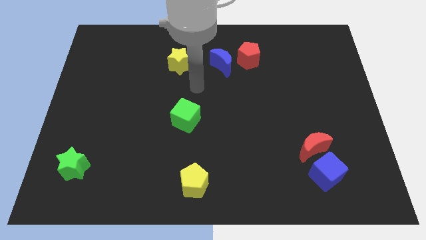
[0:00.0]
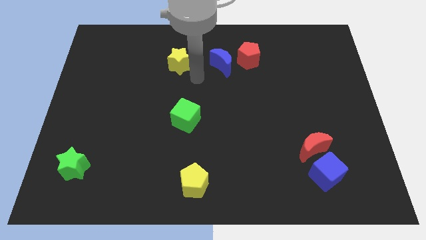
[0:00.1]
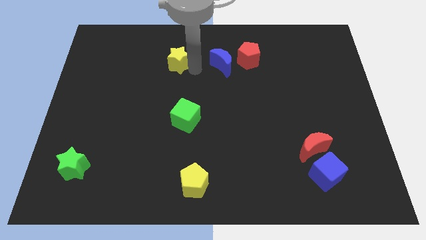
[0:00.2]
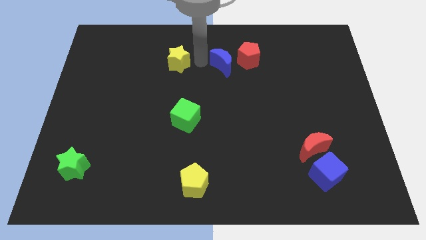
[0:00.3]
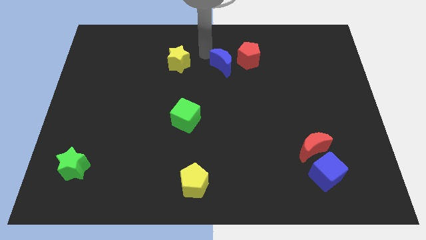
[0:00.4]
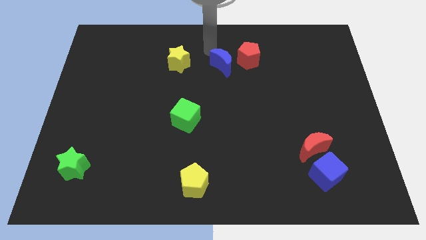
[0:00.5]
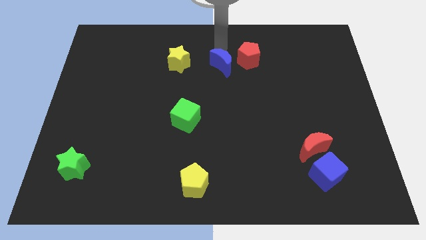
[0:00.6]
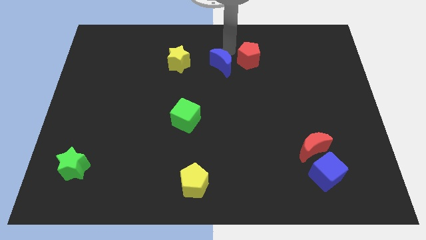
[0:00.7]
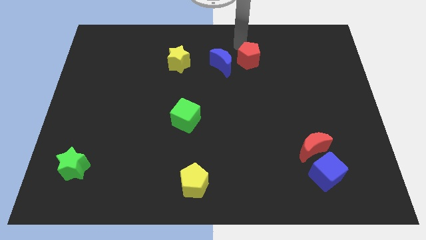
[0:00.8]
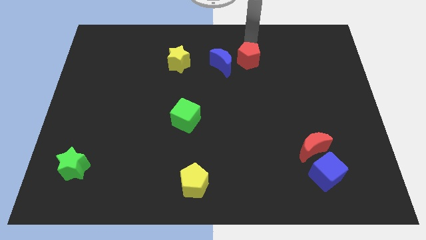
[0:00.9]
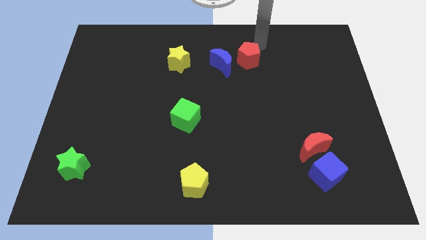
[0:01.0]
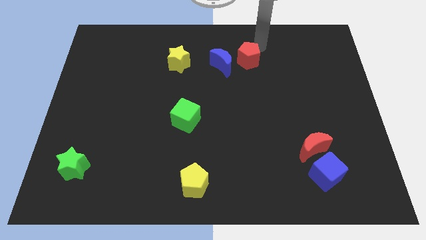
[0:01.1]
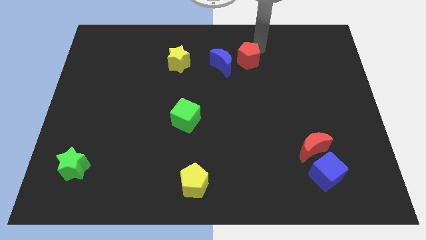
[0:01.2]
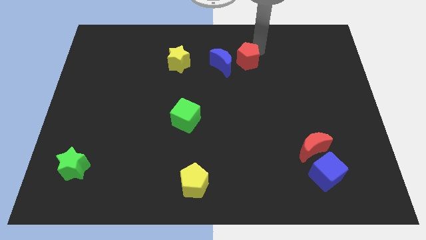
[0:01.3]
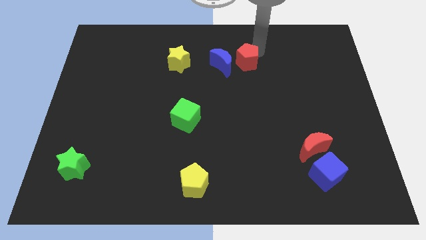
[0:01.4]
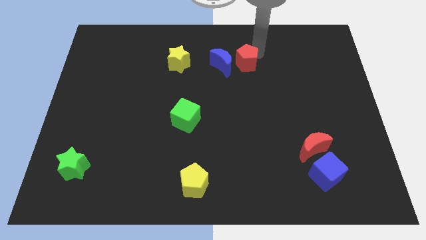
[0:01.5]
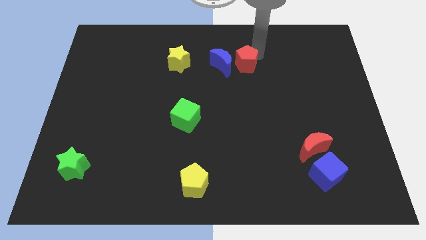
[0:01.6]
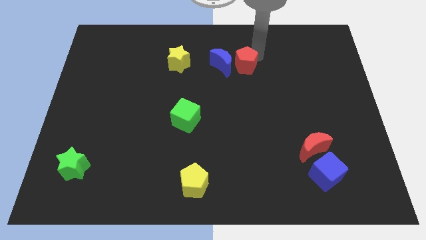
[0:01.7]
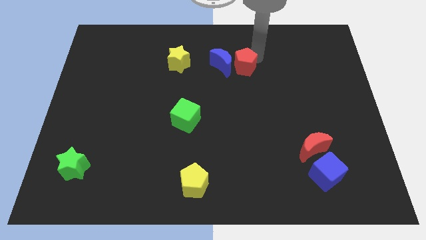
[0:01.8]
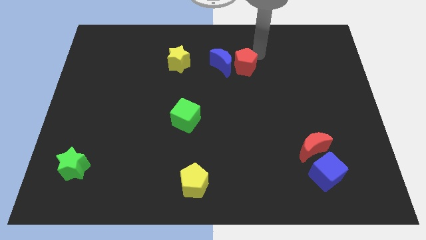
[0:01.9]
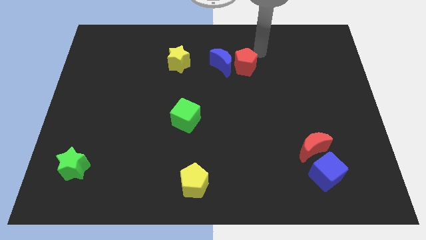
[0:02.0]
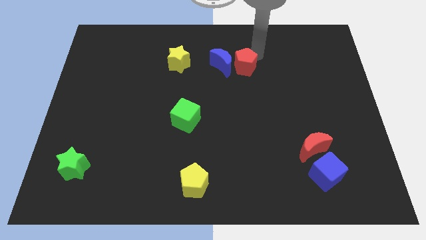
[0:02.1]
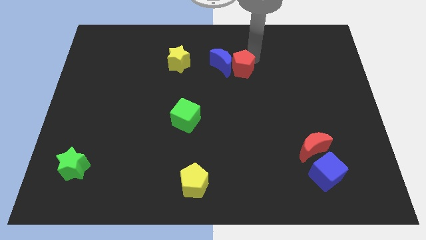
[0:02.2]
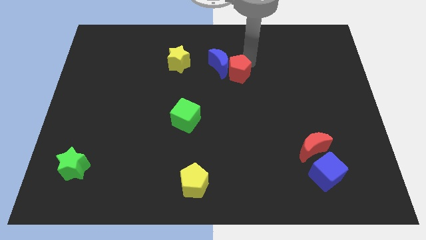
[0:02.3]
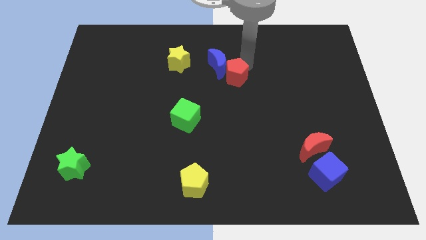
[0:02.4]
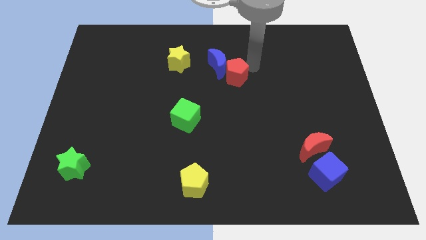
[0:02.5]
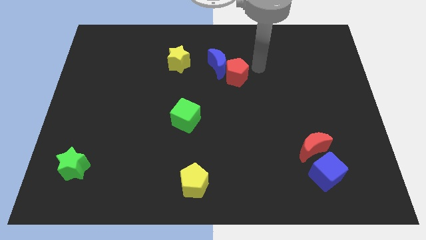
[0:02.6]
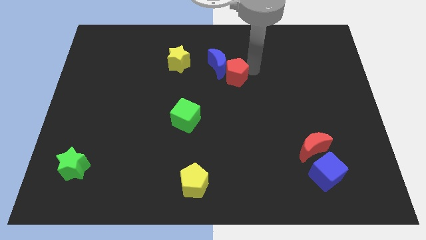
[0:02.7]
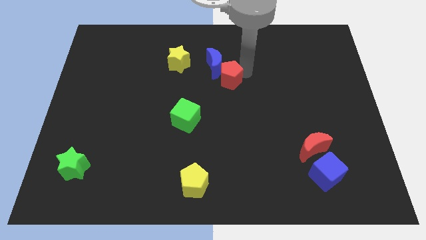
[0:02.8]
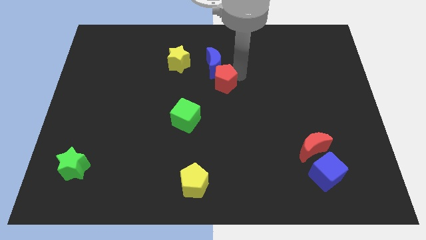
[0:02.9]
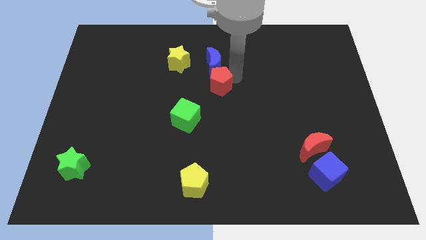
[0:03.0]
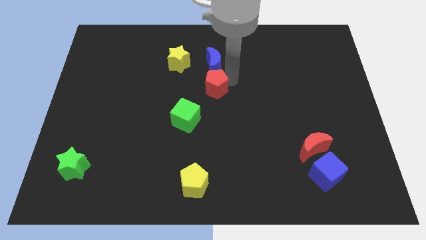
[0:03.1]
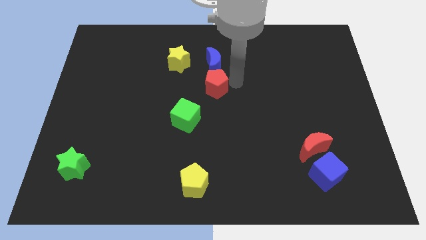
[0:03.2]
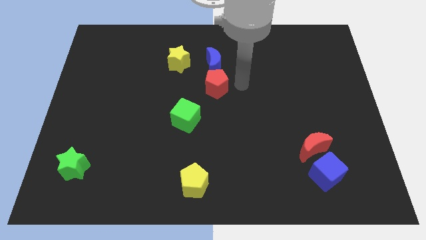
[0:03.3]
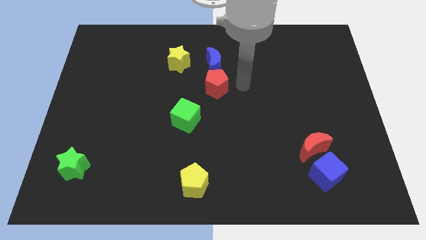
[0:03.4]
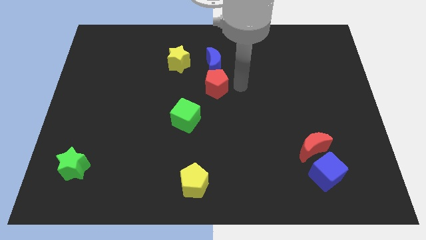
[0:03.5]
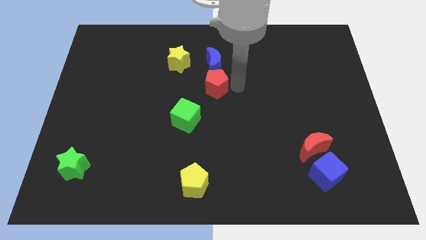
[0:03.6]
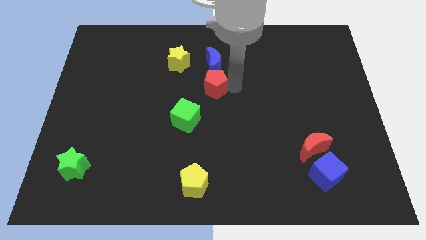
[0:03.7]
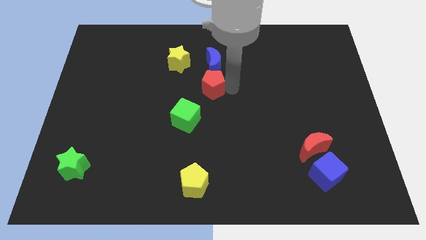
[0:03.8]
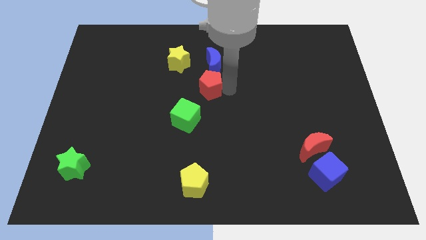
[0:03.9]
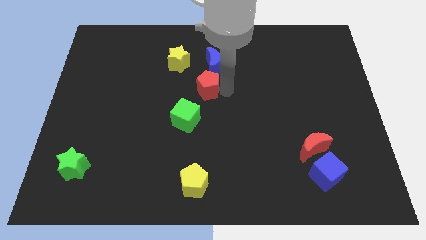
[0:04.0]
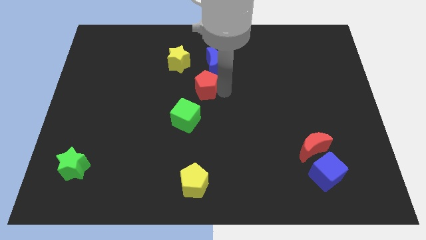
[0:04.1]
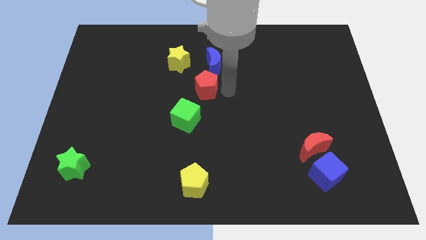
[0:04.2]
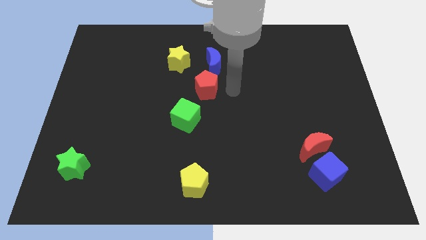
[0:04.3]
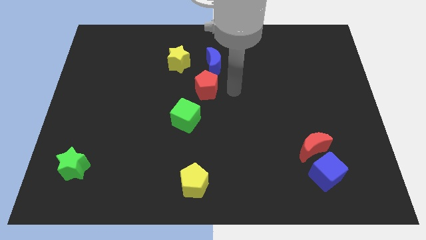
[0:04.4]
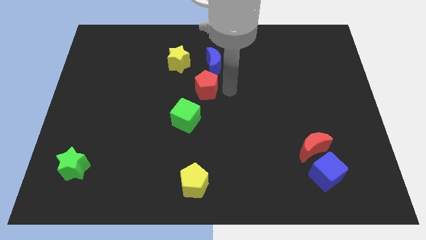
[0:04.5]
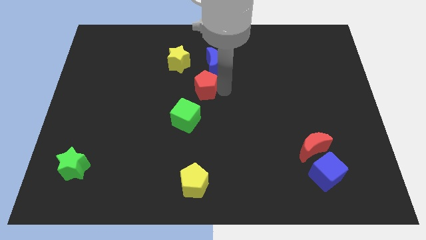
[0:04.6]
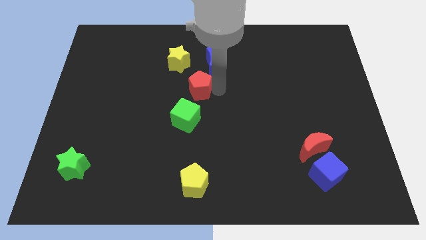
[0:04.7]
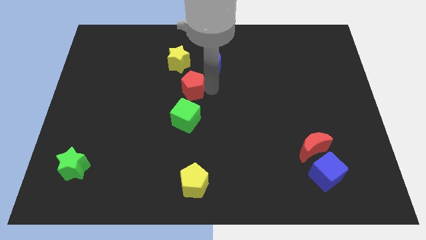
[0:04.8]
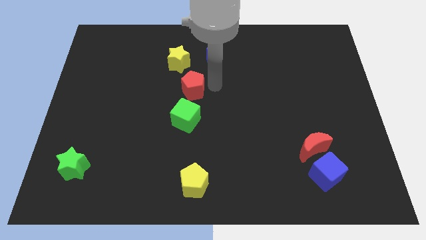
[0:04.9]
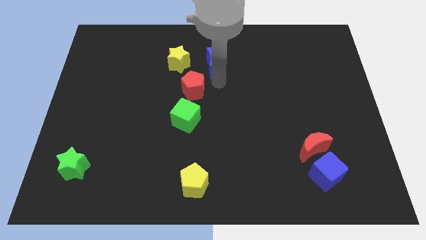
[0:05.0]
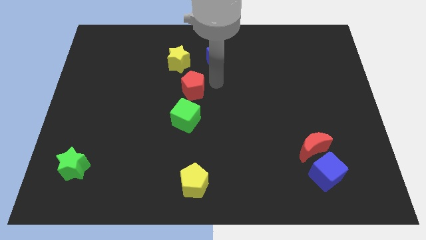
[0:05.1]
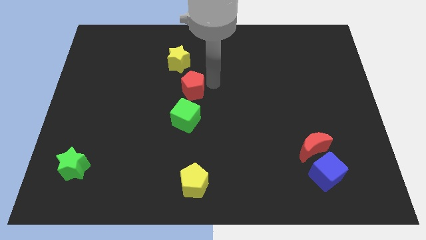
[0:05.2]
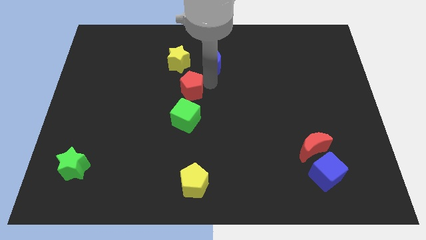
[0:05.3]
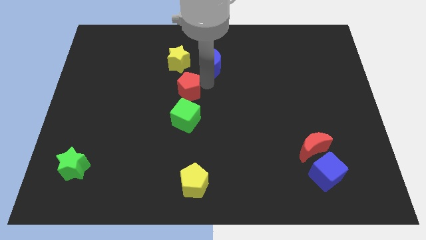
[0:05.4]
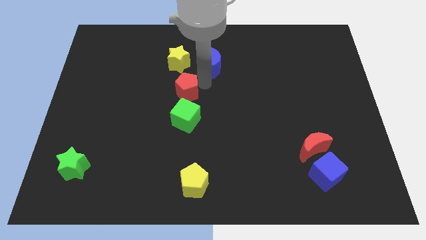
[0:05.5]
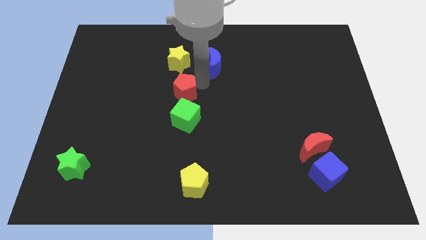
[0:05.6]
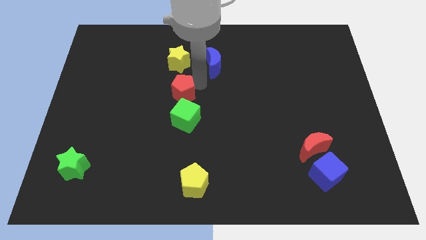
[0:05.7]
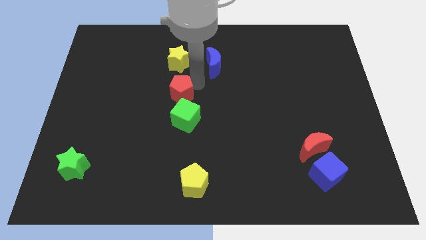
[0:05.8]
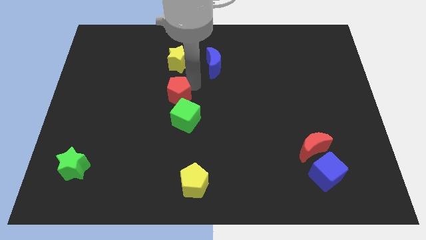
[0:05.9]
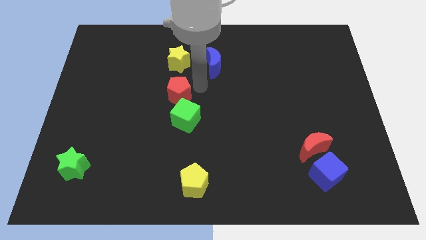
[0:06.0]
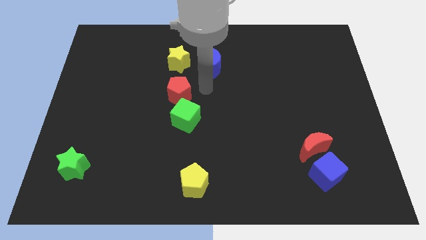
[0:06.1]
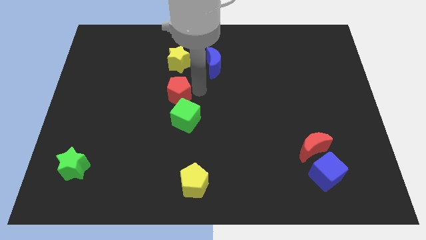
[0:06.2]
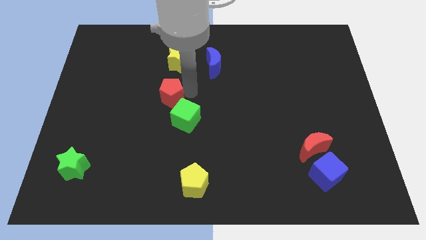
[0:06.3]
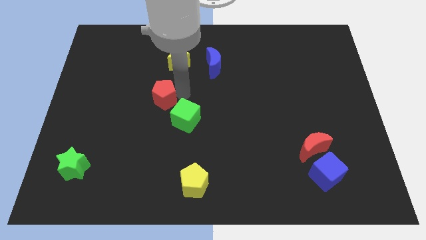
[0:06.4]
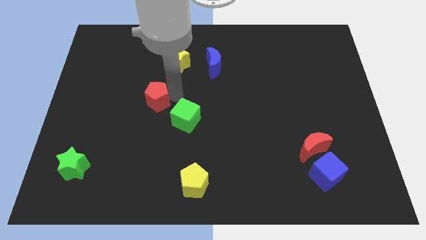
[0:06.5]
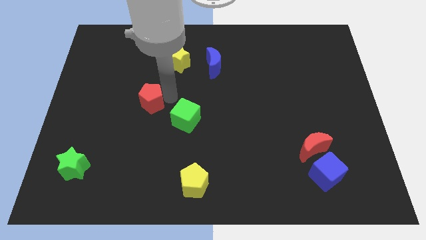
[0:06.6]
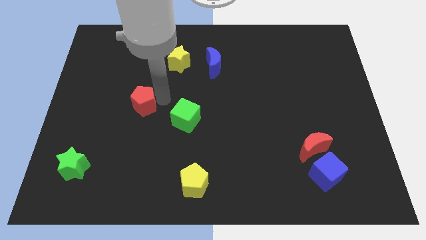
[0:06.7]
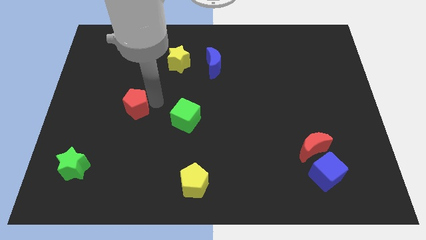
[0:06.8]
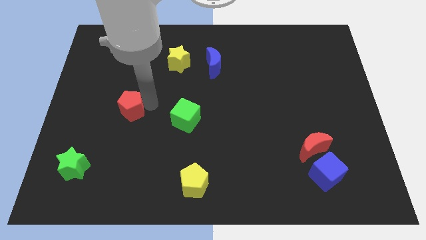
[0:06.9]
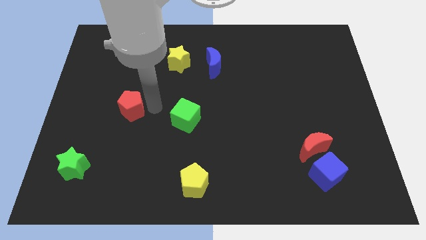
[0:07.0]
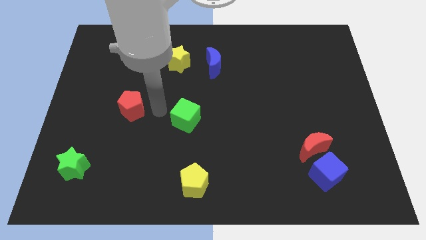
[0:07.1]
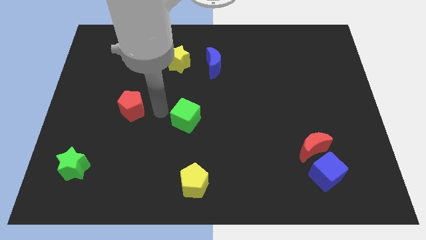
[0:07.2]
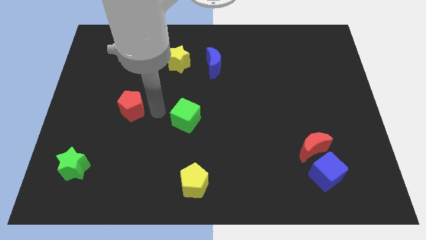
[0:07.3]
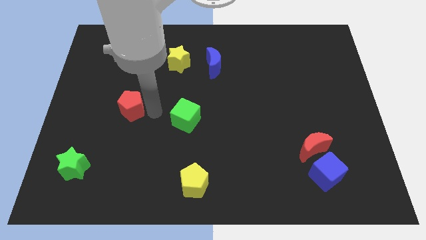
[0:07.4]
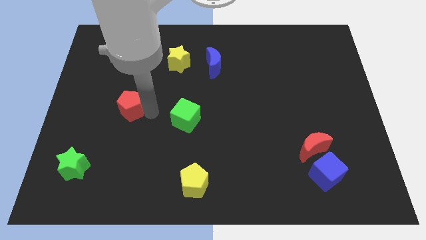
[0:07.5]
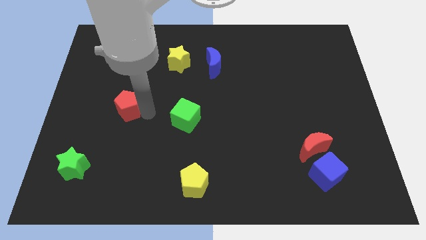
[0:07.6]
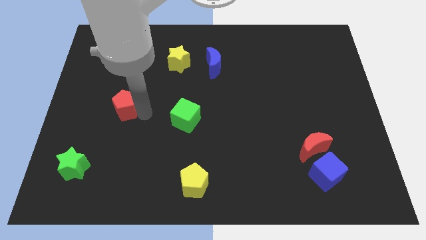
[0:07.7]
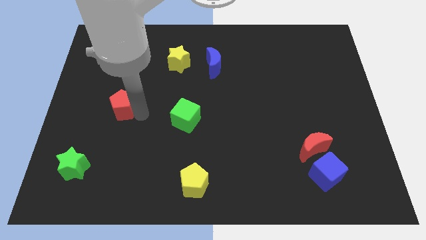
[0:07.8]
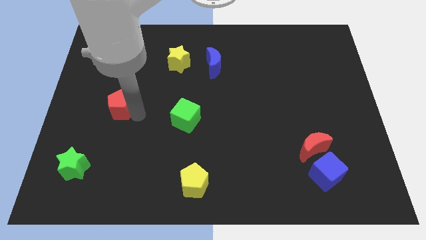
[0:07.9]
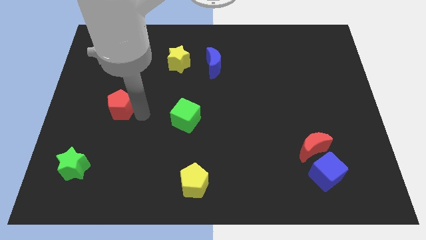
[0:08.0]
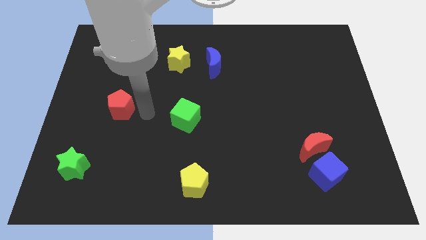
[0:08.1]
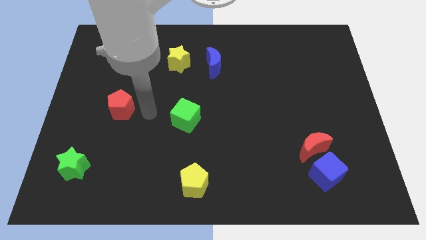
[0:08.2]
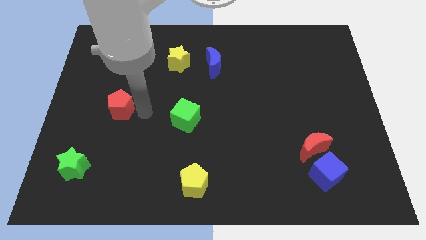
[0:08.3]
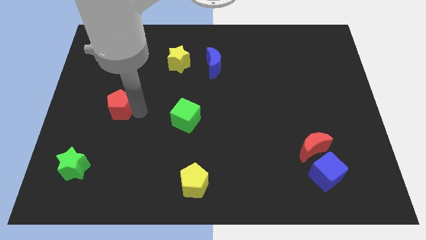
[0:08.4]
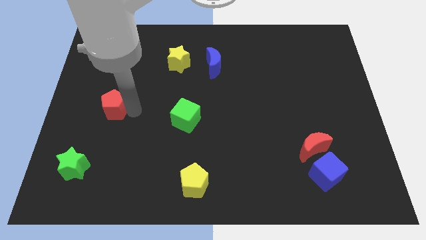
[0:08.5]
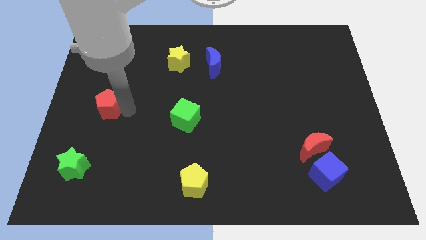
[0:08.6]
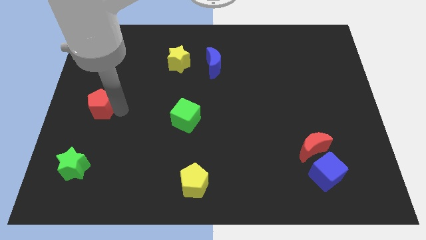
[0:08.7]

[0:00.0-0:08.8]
put the red pentagon to the left side
